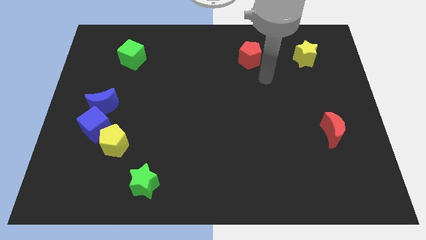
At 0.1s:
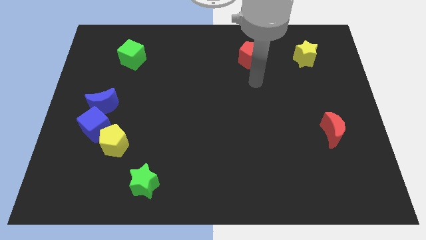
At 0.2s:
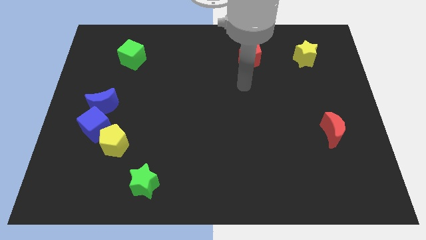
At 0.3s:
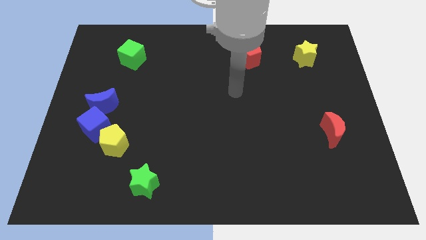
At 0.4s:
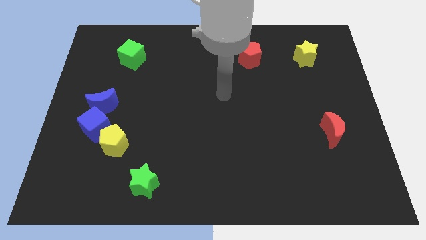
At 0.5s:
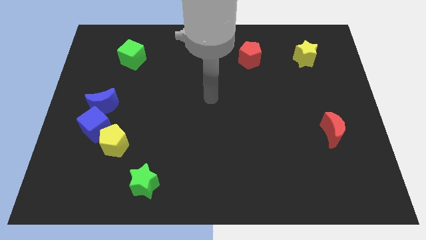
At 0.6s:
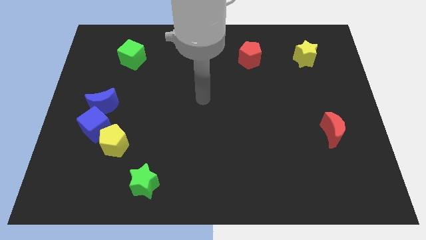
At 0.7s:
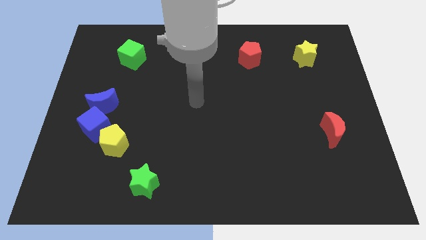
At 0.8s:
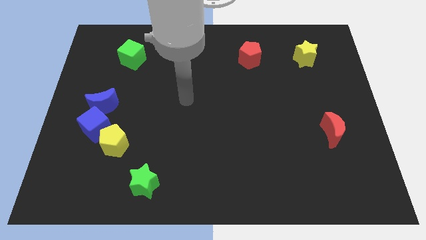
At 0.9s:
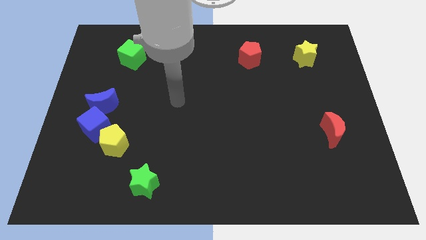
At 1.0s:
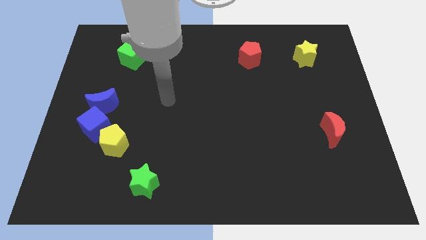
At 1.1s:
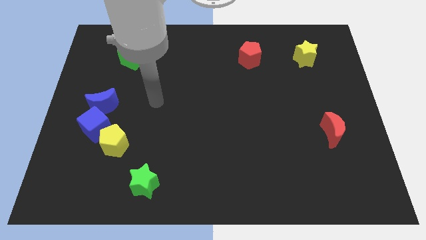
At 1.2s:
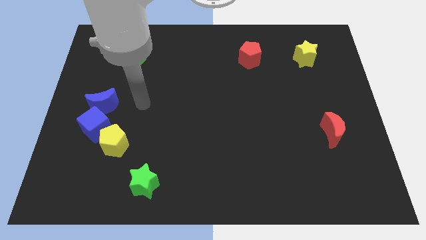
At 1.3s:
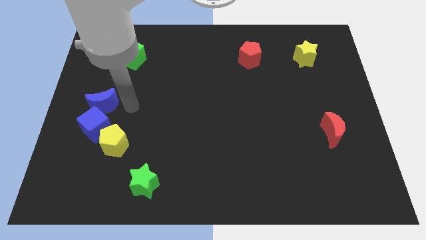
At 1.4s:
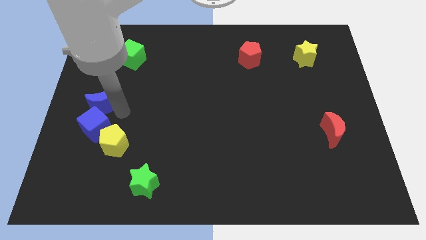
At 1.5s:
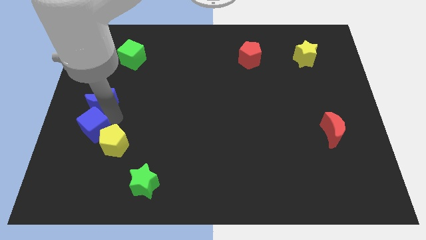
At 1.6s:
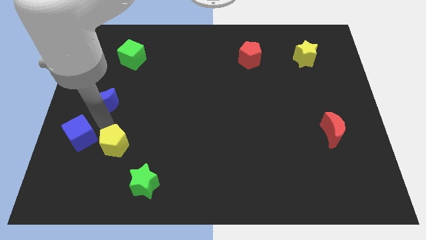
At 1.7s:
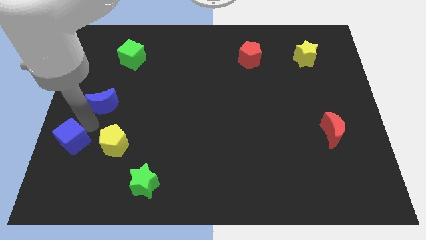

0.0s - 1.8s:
pull the blue moon apart from the blue cube

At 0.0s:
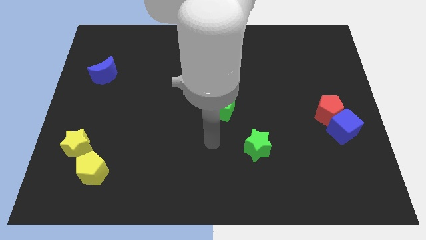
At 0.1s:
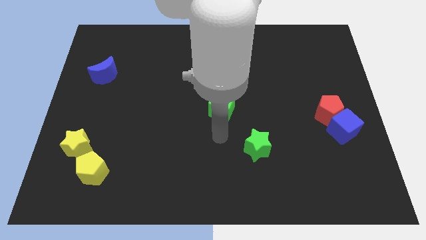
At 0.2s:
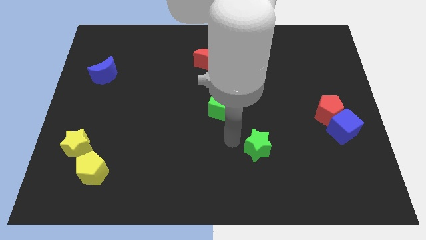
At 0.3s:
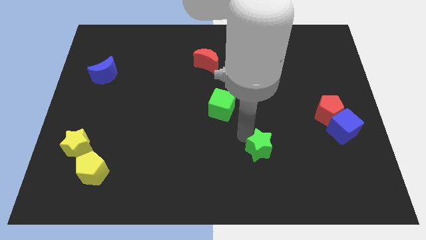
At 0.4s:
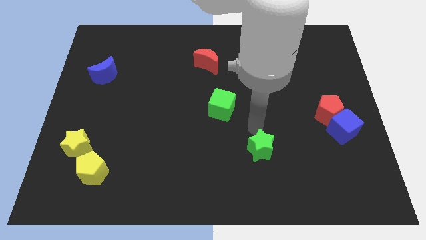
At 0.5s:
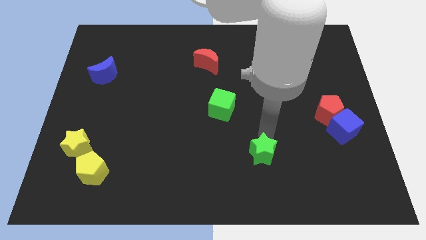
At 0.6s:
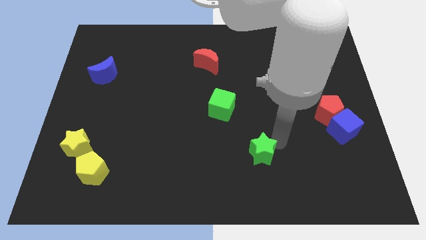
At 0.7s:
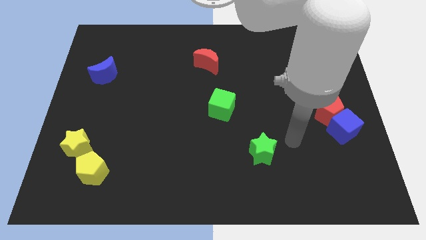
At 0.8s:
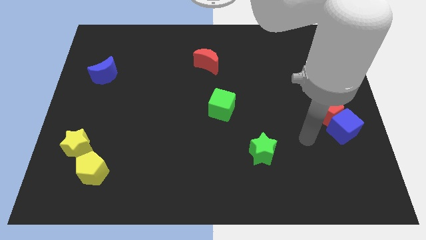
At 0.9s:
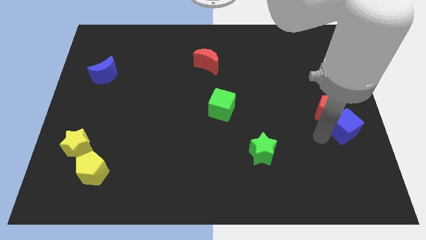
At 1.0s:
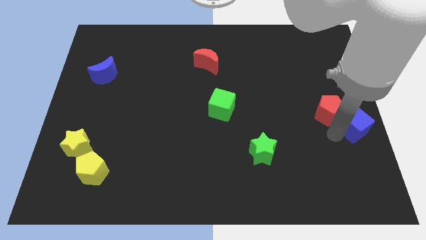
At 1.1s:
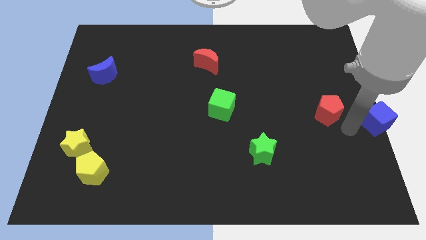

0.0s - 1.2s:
move the red pentagon away from the blue cube

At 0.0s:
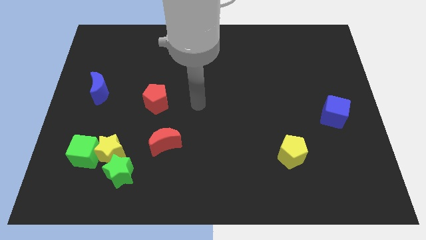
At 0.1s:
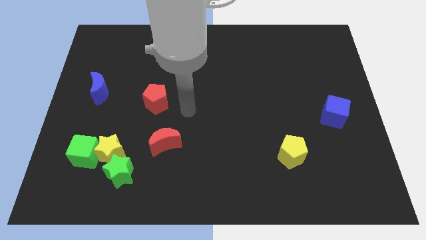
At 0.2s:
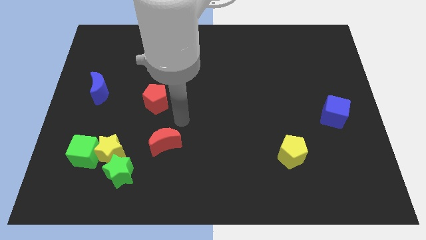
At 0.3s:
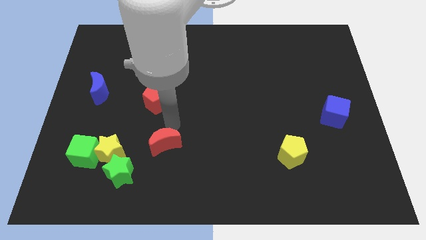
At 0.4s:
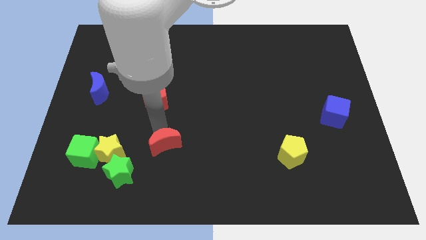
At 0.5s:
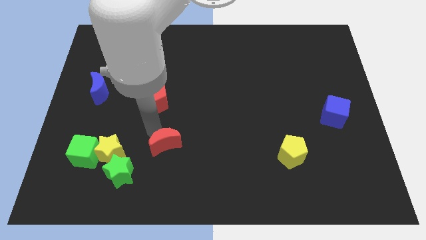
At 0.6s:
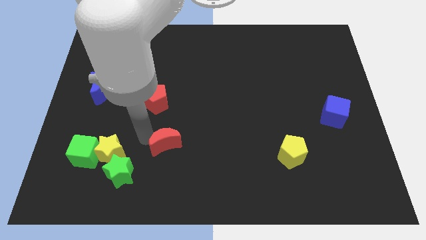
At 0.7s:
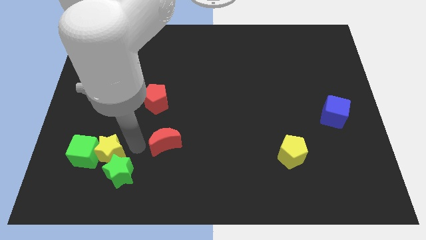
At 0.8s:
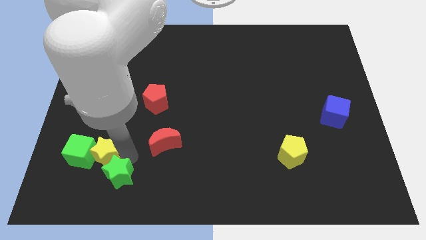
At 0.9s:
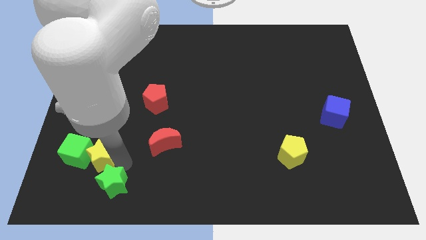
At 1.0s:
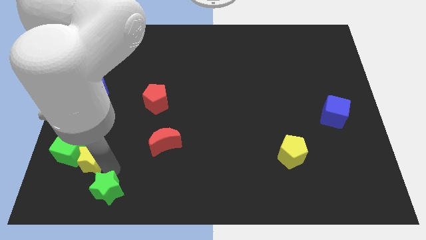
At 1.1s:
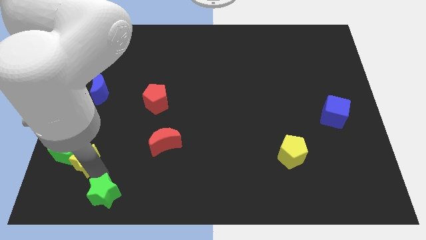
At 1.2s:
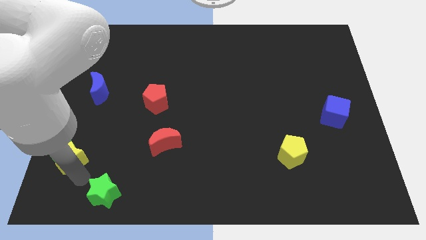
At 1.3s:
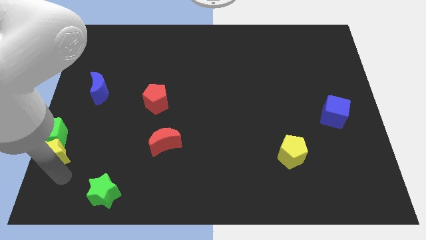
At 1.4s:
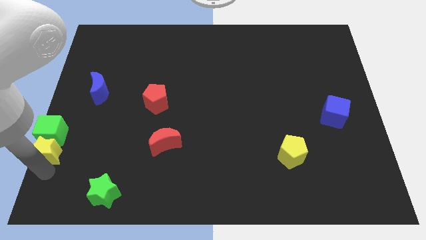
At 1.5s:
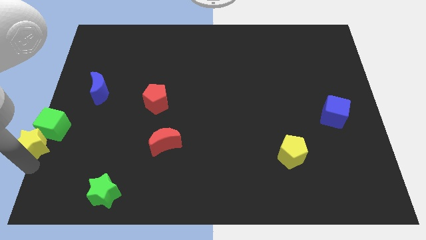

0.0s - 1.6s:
pull the yellow star apart from the green cube and green star

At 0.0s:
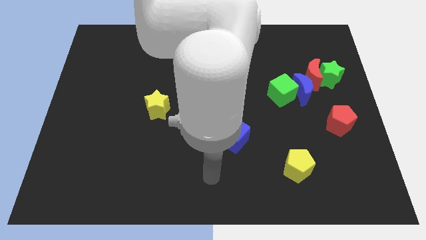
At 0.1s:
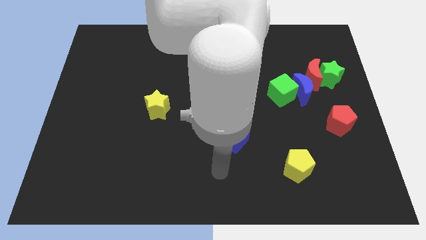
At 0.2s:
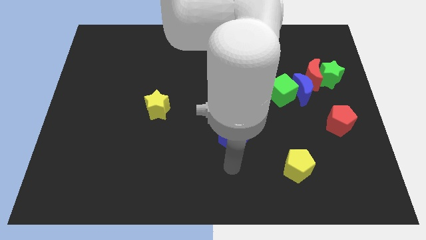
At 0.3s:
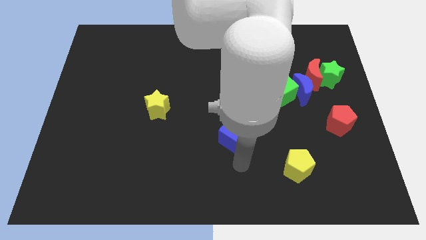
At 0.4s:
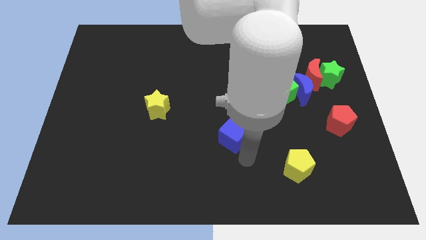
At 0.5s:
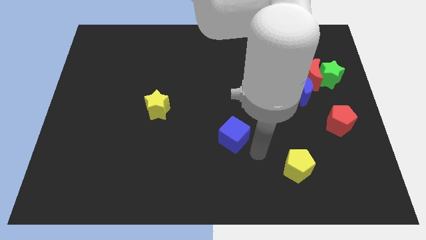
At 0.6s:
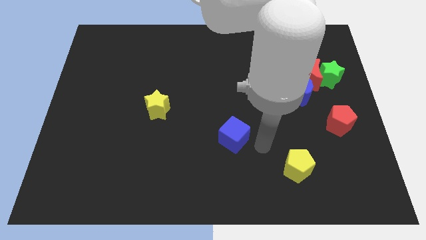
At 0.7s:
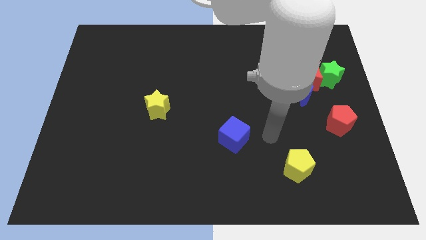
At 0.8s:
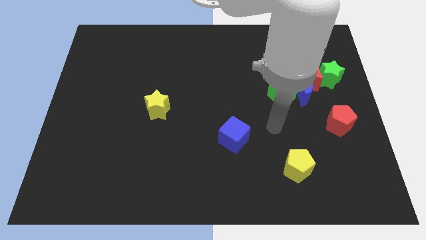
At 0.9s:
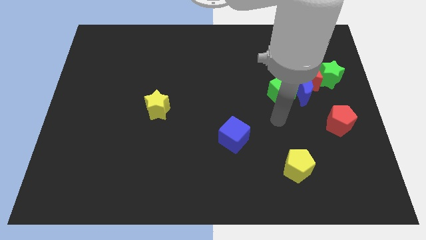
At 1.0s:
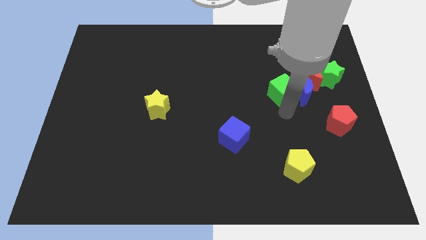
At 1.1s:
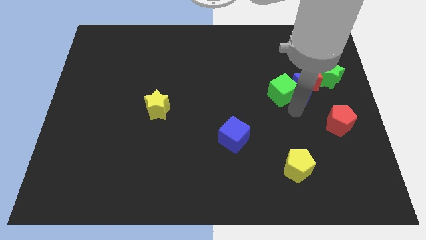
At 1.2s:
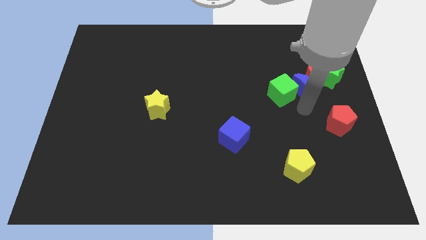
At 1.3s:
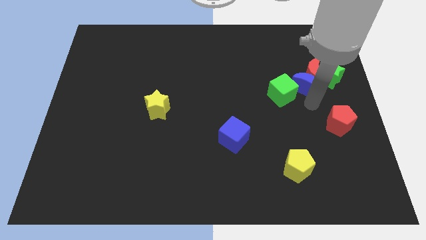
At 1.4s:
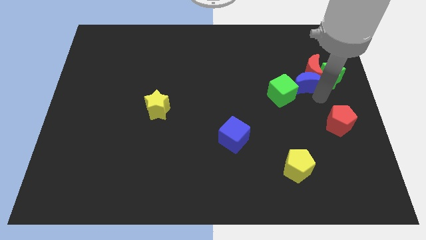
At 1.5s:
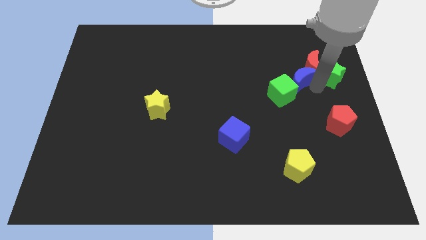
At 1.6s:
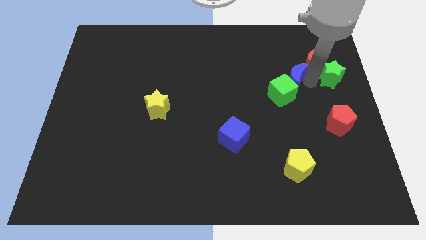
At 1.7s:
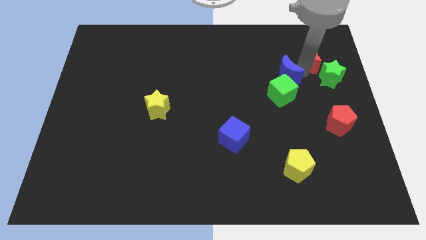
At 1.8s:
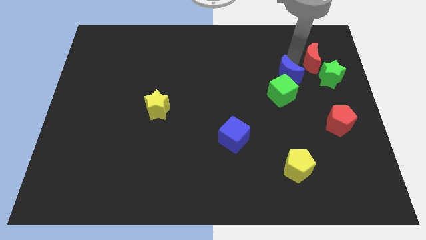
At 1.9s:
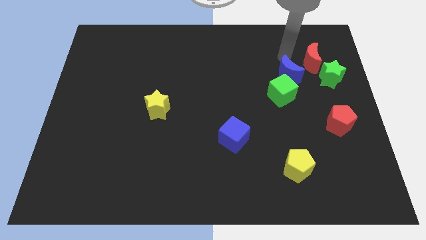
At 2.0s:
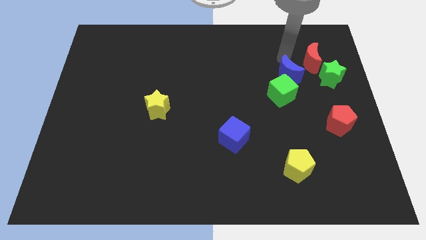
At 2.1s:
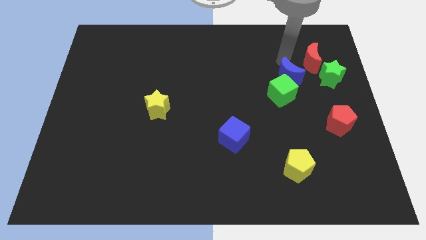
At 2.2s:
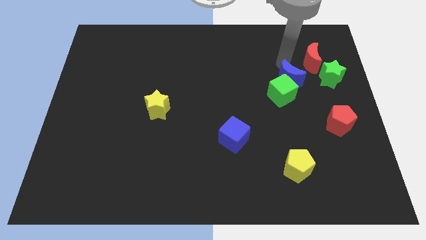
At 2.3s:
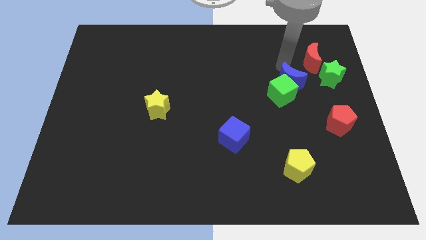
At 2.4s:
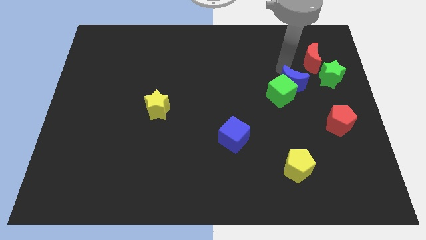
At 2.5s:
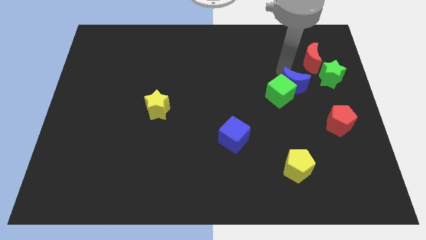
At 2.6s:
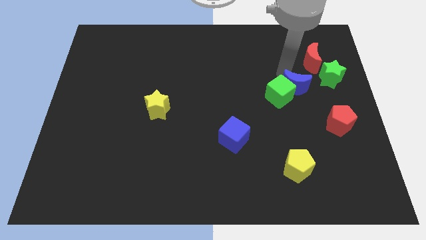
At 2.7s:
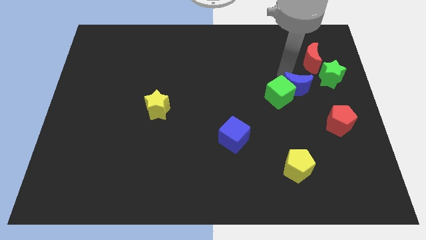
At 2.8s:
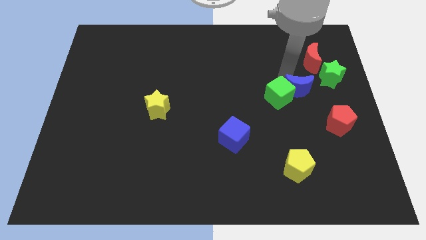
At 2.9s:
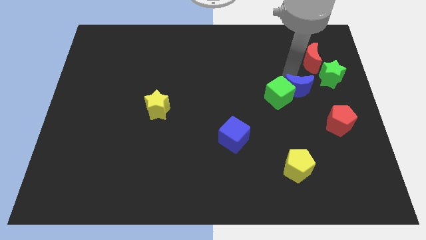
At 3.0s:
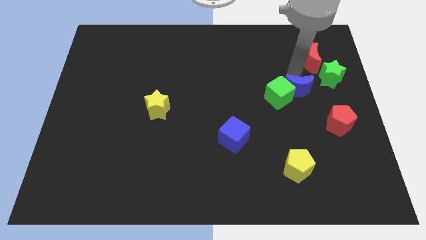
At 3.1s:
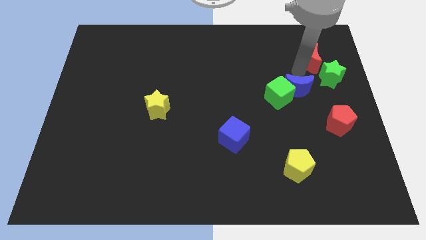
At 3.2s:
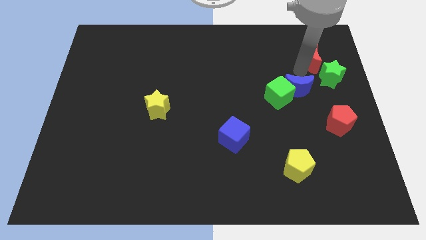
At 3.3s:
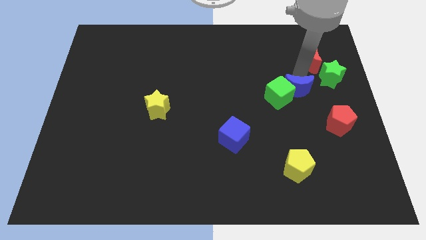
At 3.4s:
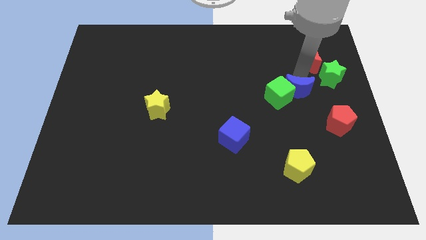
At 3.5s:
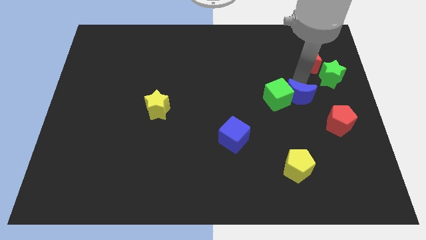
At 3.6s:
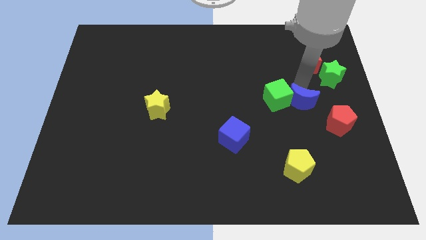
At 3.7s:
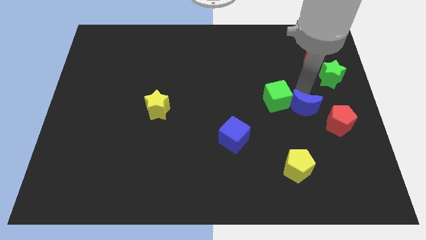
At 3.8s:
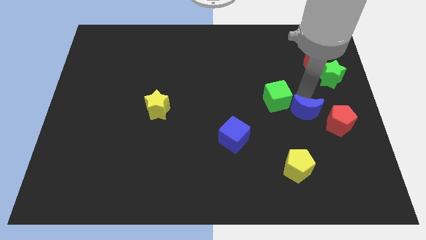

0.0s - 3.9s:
separate the blue moon from the group

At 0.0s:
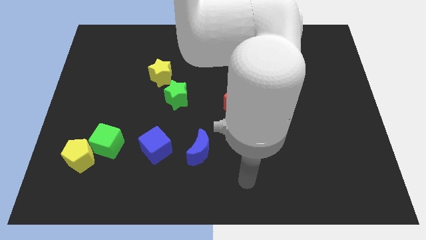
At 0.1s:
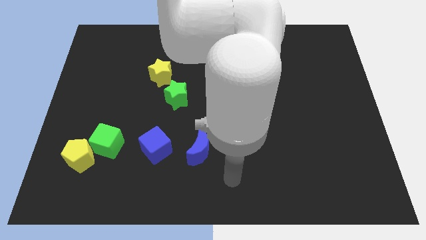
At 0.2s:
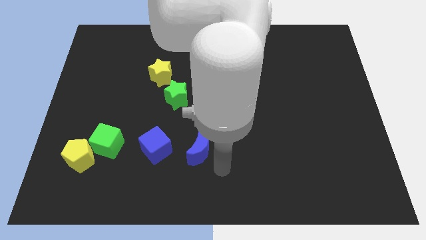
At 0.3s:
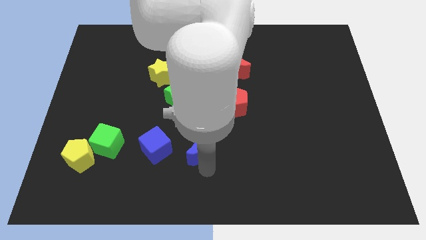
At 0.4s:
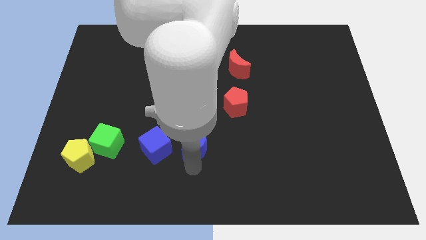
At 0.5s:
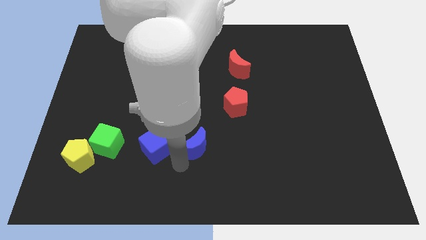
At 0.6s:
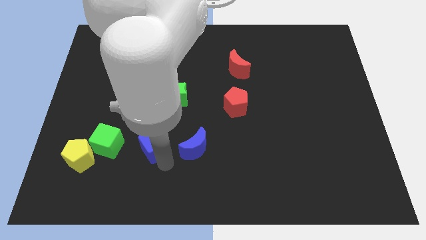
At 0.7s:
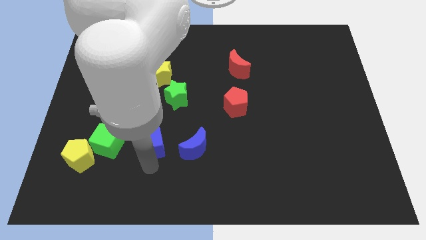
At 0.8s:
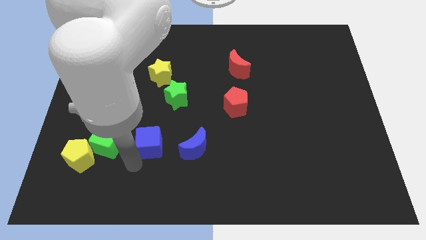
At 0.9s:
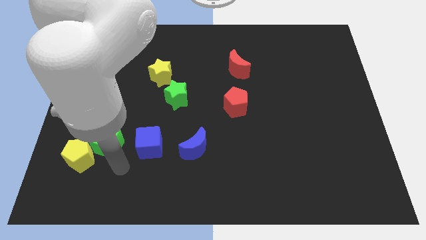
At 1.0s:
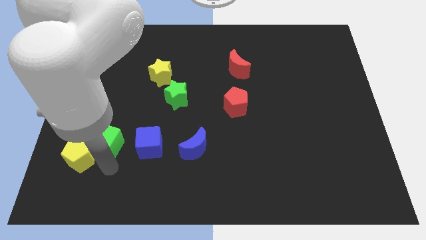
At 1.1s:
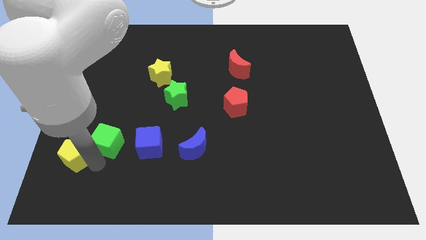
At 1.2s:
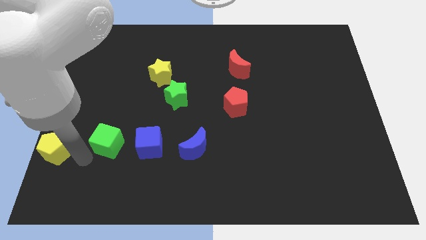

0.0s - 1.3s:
move the green cube away from the yellow pentagon
